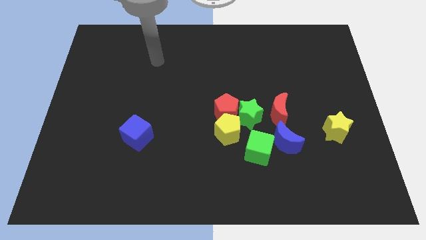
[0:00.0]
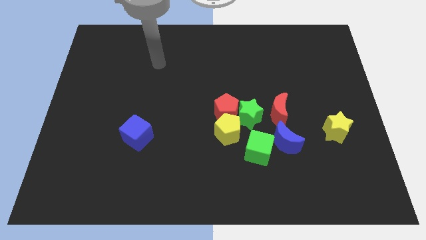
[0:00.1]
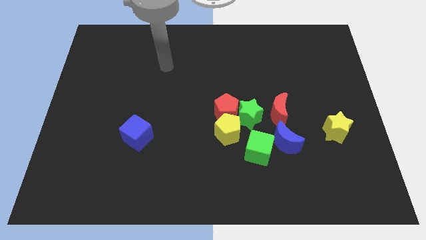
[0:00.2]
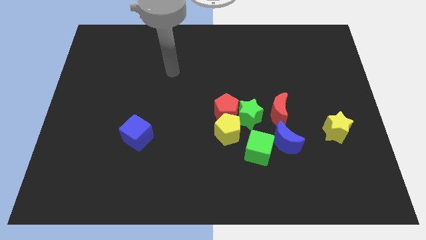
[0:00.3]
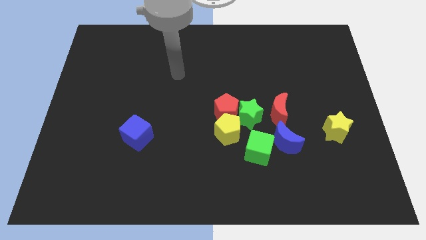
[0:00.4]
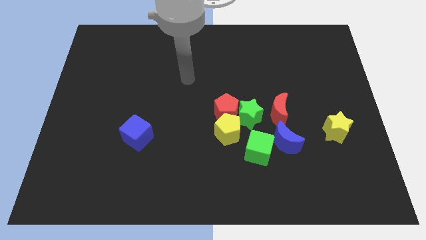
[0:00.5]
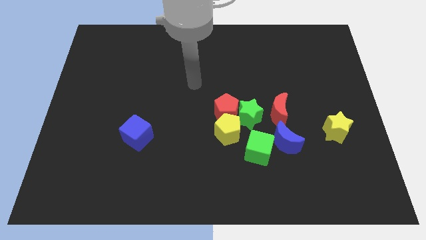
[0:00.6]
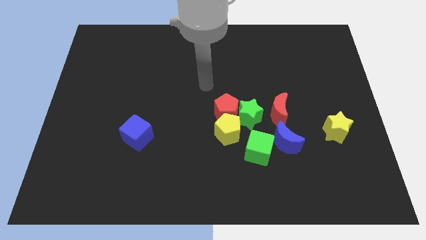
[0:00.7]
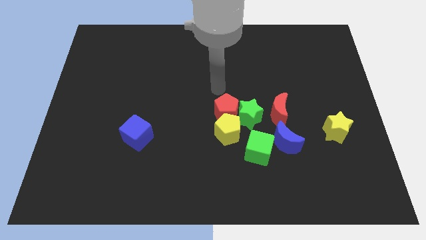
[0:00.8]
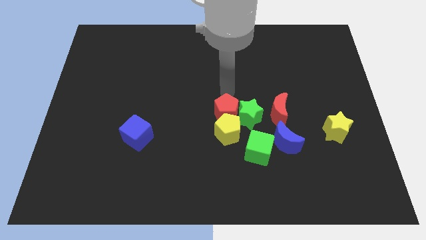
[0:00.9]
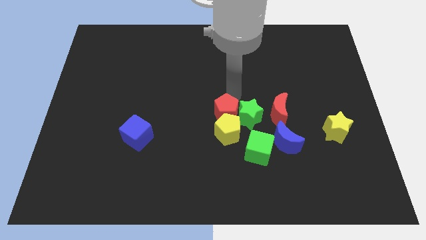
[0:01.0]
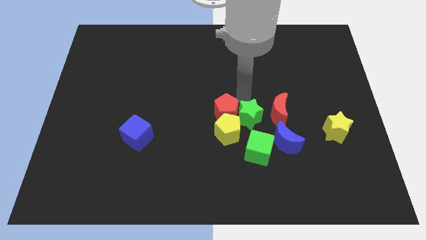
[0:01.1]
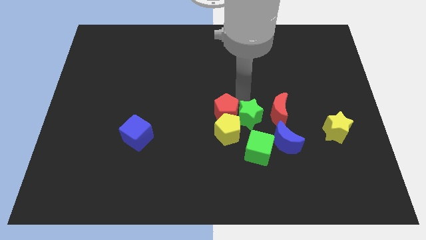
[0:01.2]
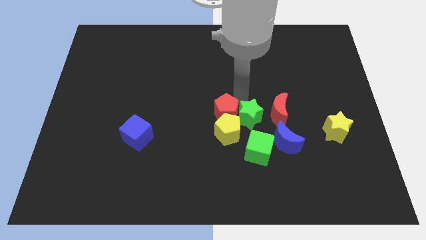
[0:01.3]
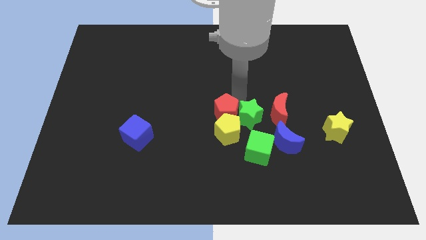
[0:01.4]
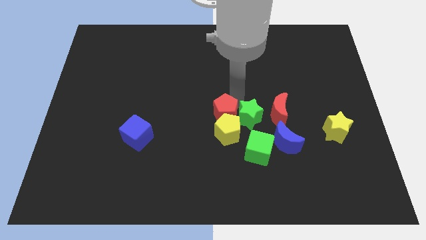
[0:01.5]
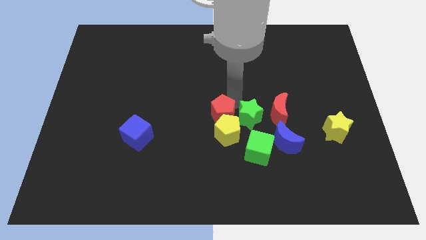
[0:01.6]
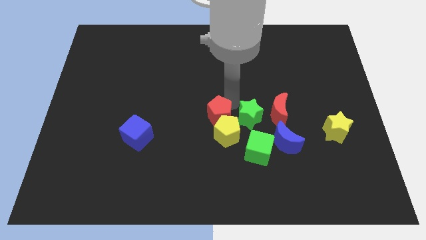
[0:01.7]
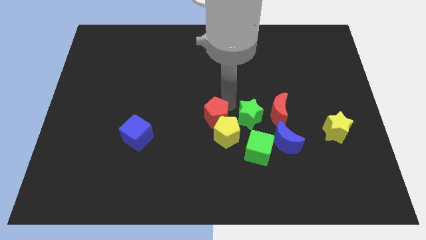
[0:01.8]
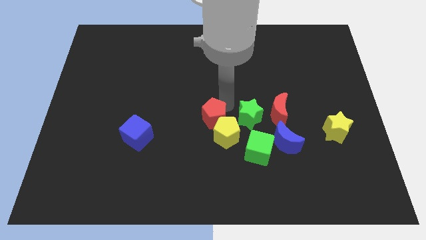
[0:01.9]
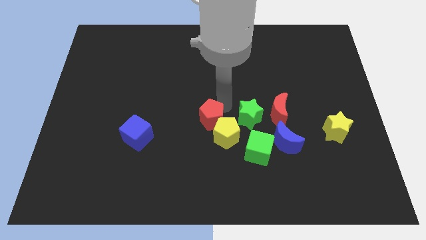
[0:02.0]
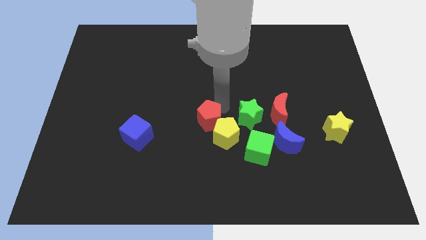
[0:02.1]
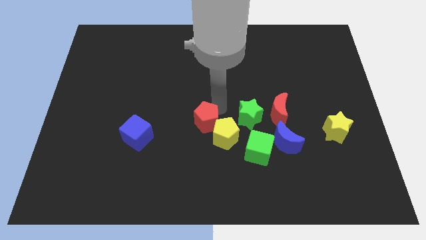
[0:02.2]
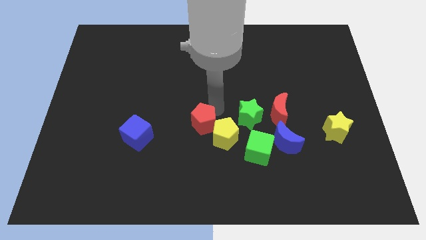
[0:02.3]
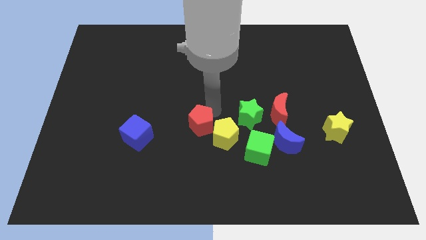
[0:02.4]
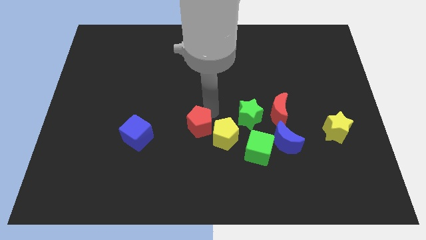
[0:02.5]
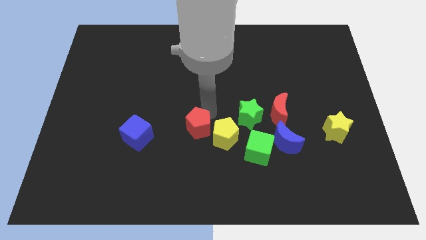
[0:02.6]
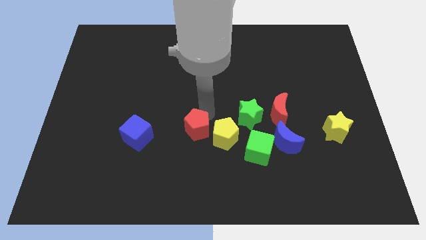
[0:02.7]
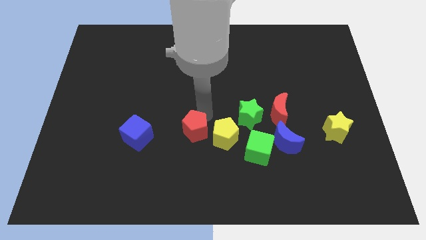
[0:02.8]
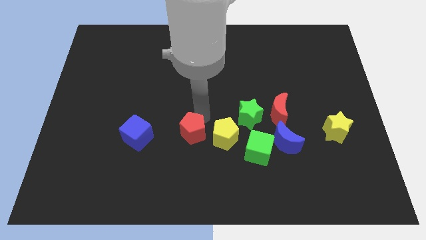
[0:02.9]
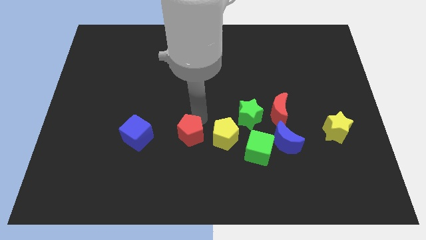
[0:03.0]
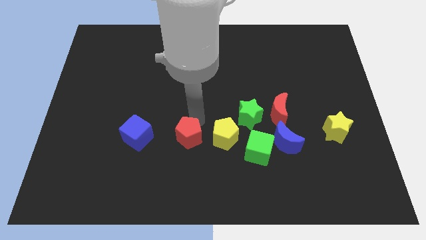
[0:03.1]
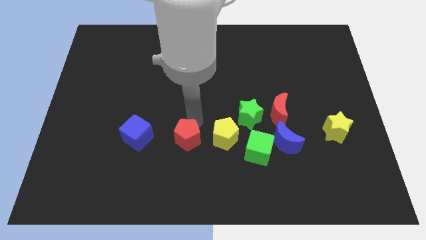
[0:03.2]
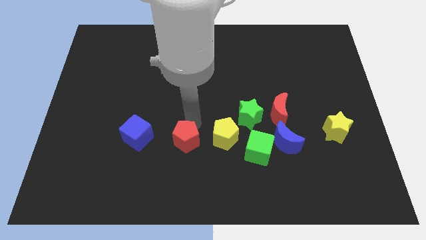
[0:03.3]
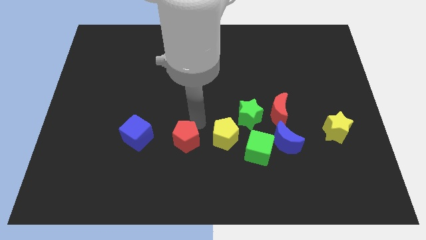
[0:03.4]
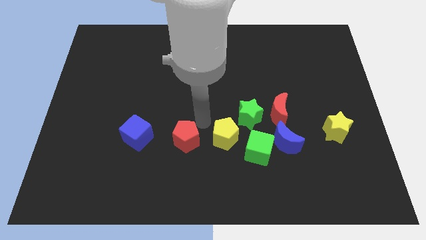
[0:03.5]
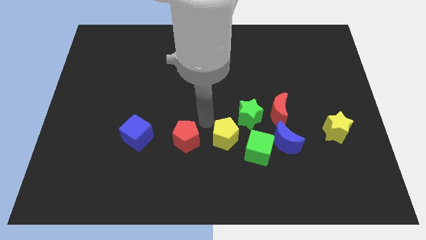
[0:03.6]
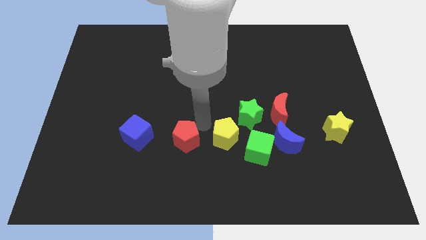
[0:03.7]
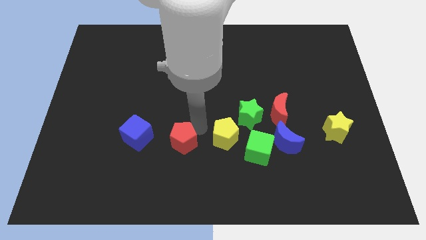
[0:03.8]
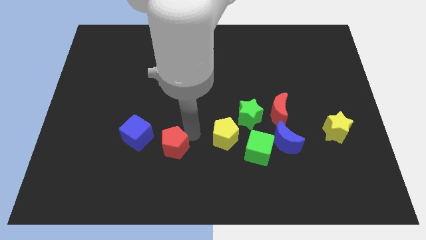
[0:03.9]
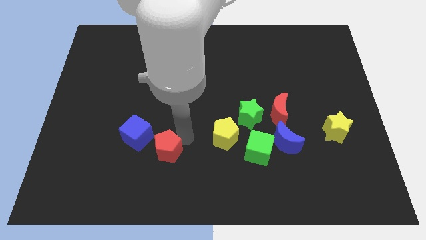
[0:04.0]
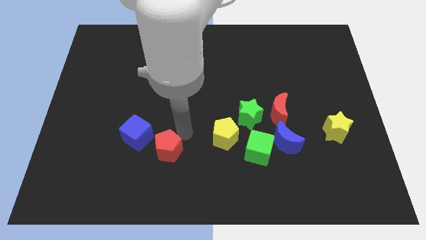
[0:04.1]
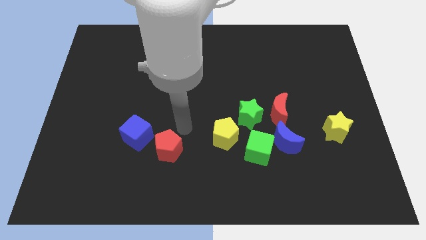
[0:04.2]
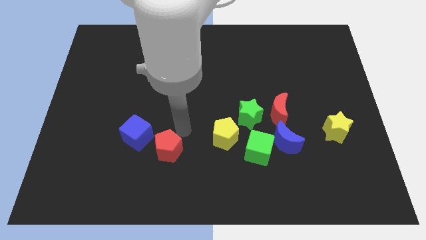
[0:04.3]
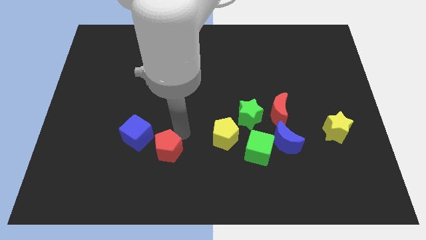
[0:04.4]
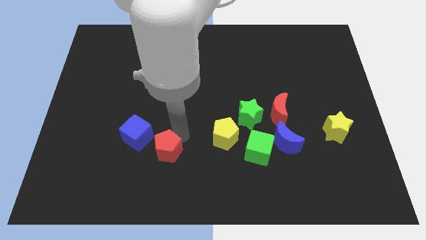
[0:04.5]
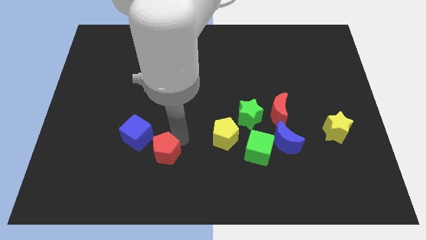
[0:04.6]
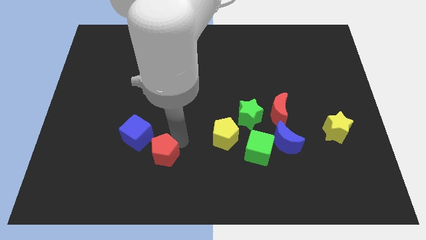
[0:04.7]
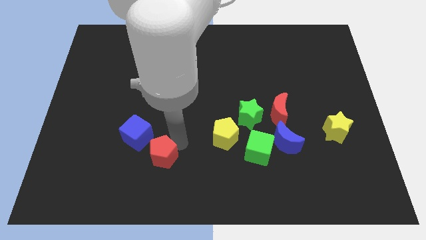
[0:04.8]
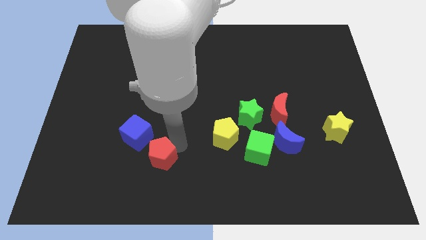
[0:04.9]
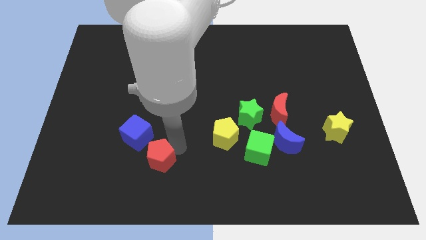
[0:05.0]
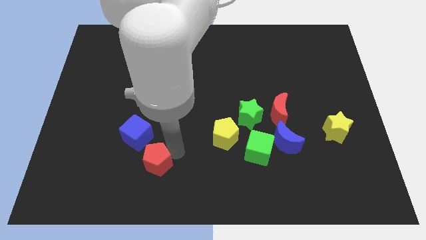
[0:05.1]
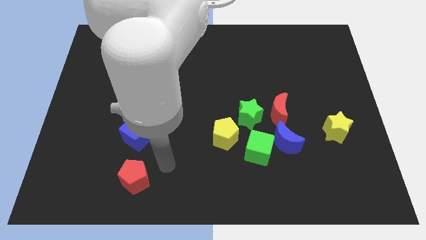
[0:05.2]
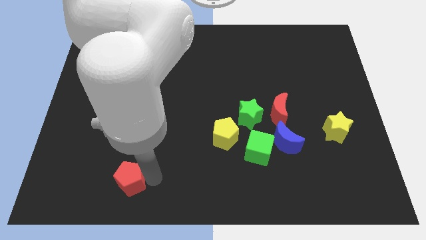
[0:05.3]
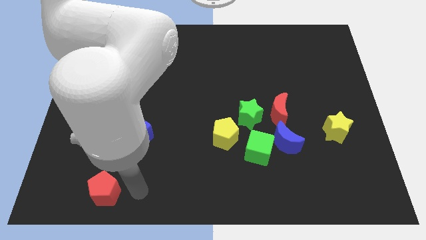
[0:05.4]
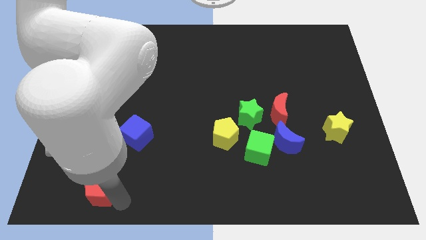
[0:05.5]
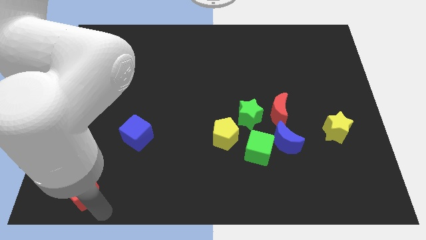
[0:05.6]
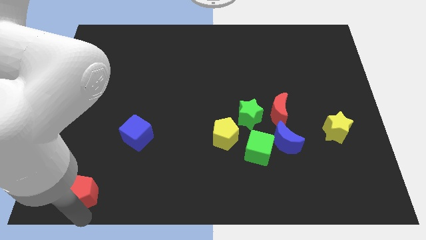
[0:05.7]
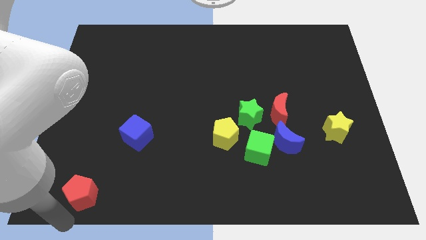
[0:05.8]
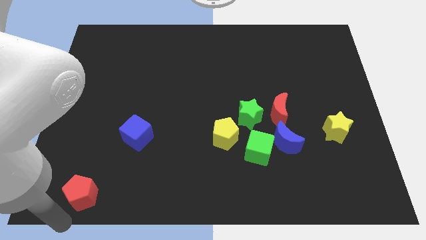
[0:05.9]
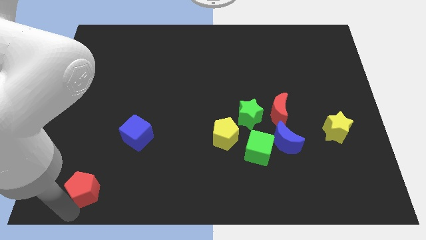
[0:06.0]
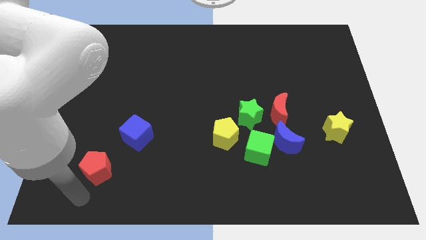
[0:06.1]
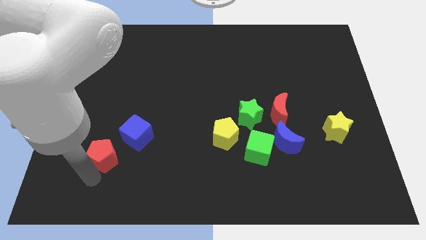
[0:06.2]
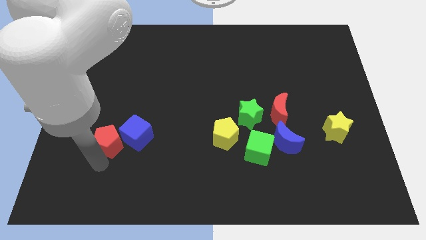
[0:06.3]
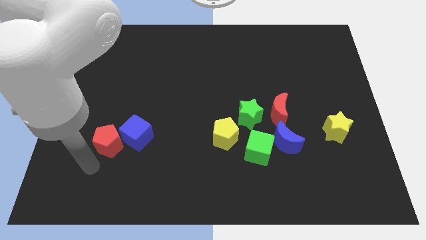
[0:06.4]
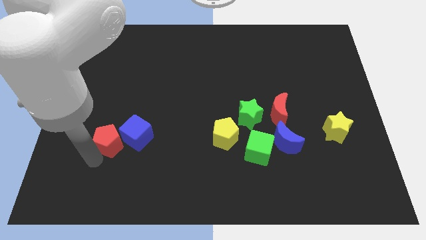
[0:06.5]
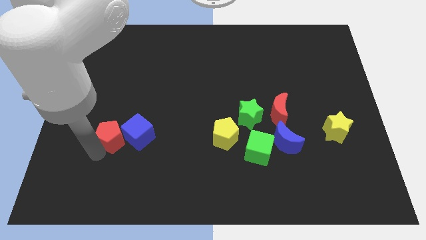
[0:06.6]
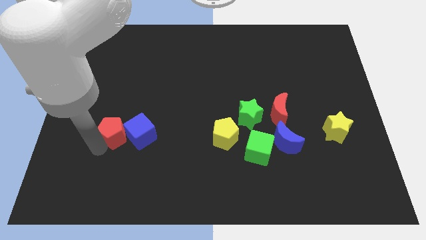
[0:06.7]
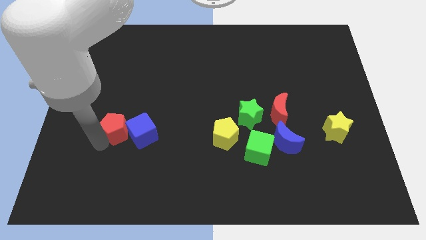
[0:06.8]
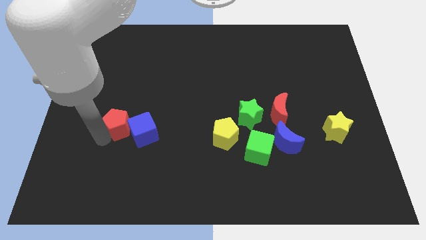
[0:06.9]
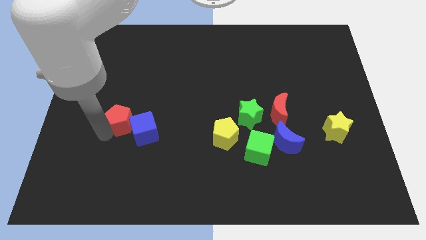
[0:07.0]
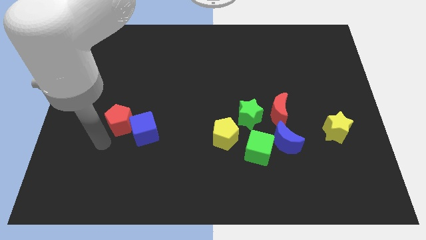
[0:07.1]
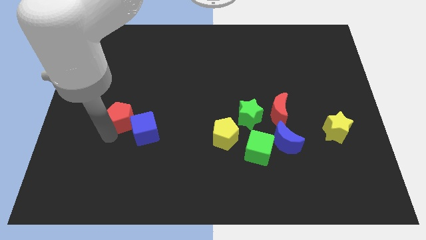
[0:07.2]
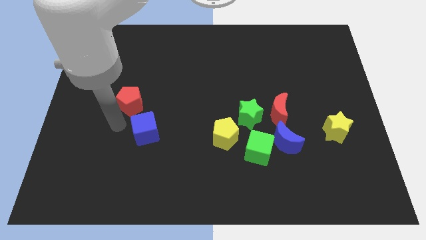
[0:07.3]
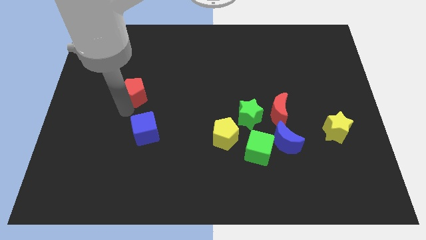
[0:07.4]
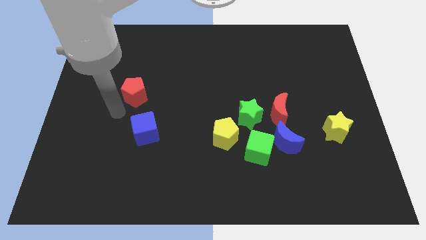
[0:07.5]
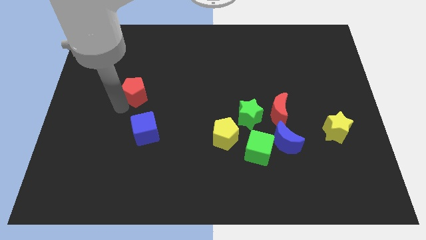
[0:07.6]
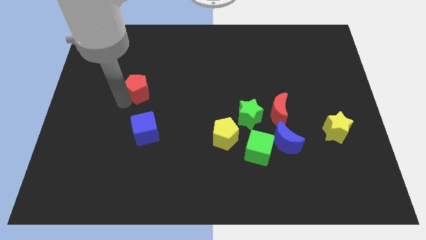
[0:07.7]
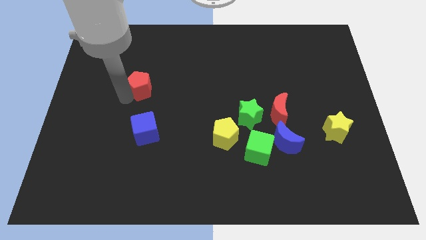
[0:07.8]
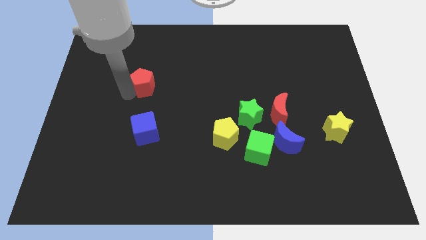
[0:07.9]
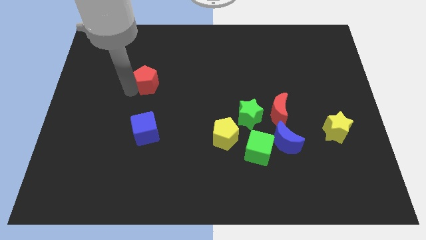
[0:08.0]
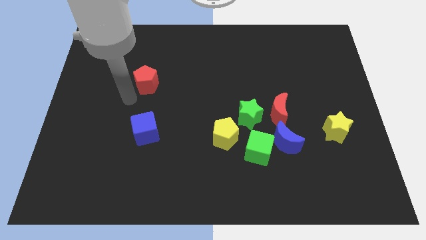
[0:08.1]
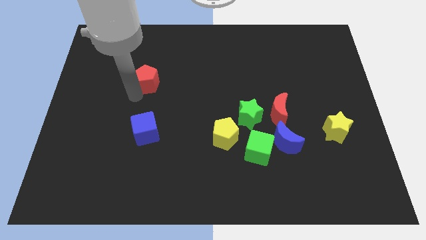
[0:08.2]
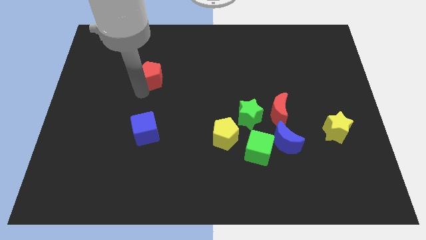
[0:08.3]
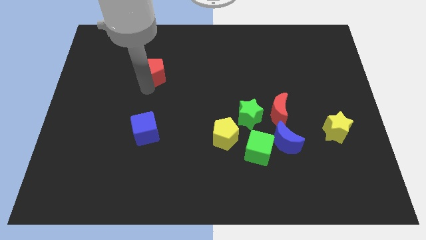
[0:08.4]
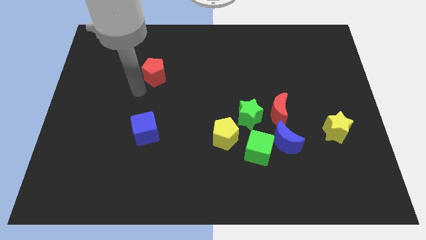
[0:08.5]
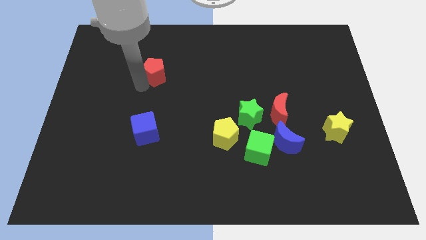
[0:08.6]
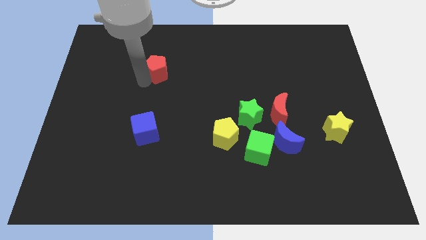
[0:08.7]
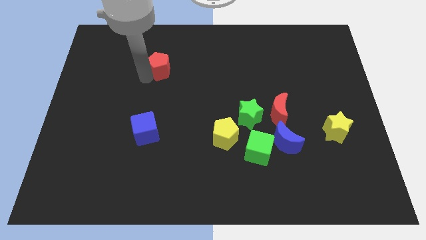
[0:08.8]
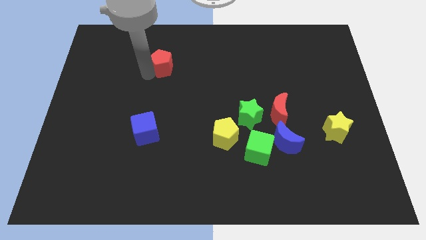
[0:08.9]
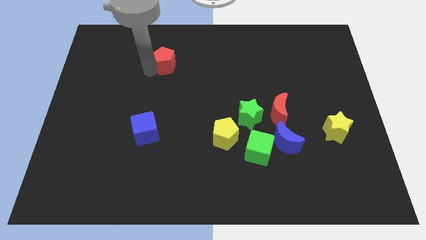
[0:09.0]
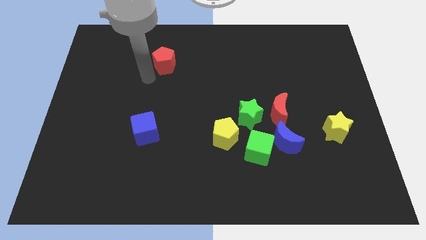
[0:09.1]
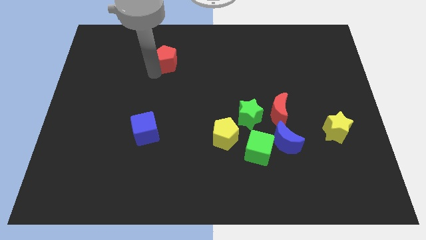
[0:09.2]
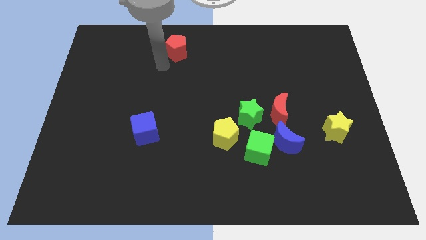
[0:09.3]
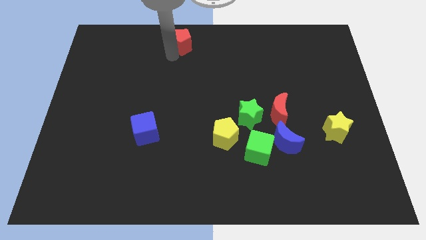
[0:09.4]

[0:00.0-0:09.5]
slide the red pentagon to the top
